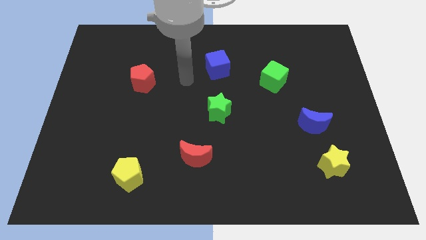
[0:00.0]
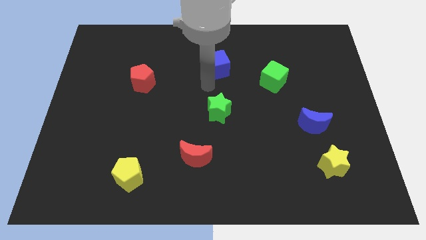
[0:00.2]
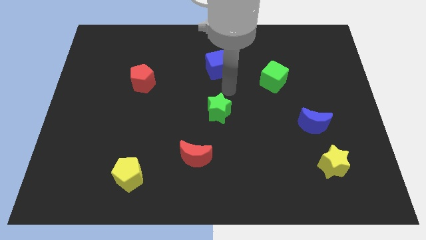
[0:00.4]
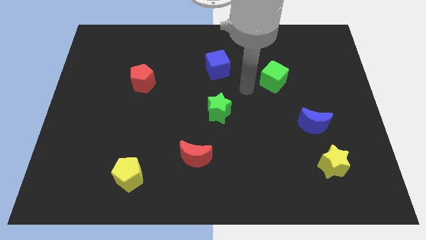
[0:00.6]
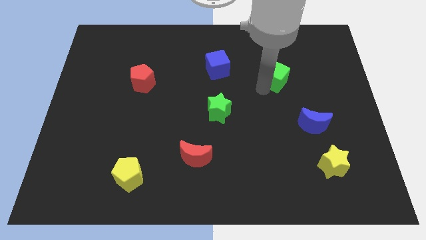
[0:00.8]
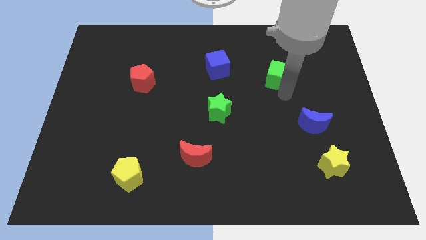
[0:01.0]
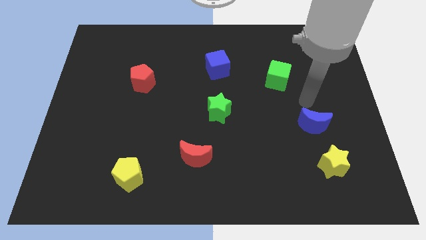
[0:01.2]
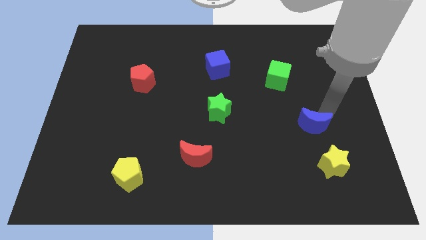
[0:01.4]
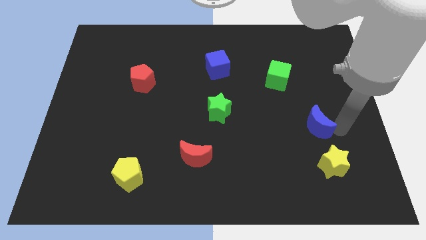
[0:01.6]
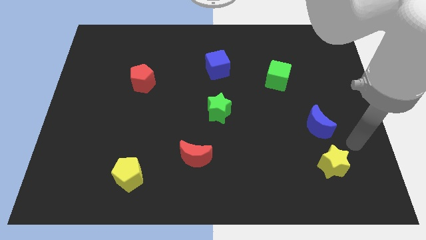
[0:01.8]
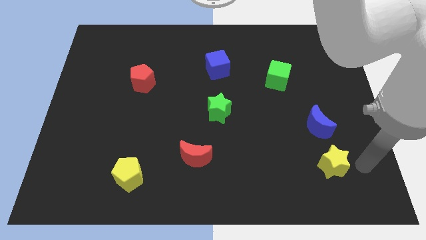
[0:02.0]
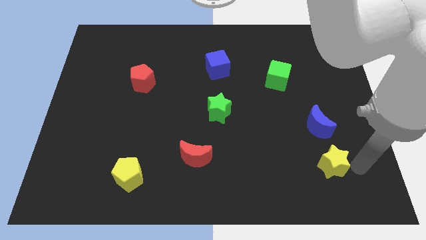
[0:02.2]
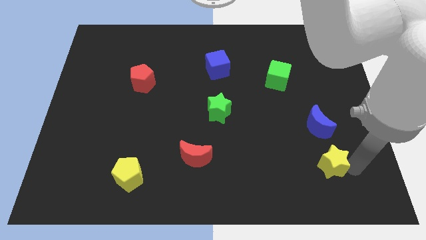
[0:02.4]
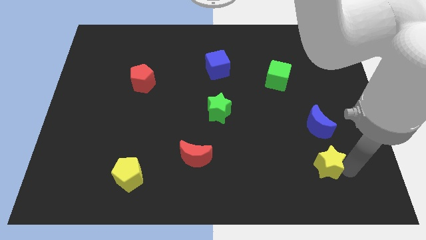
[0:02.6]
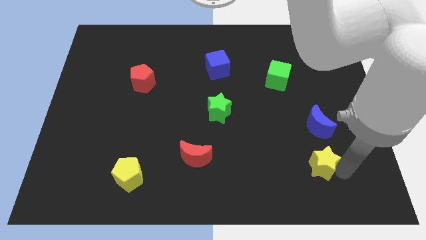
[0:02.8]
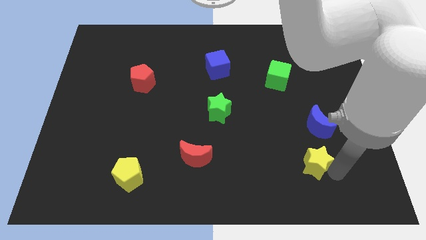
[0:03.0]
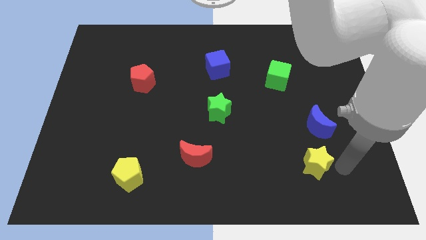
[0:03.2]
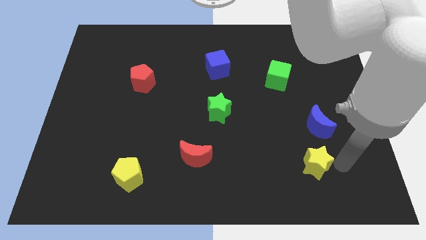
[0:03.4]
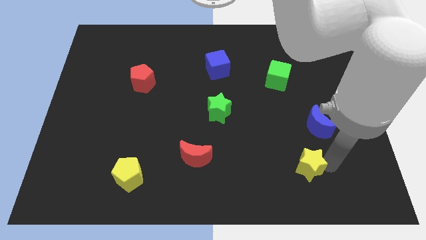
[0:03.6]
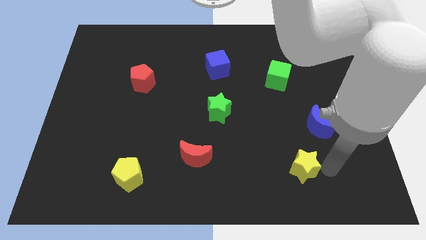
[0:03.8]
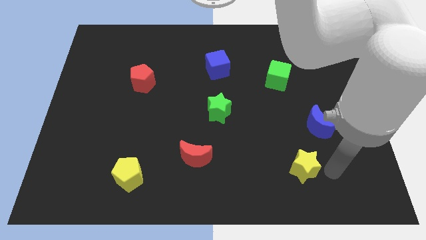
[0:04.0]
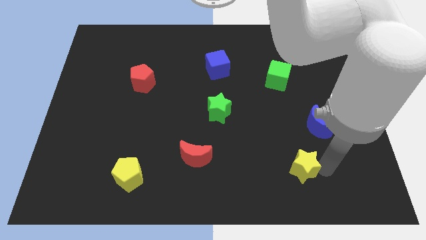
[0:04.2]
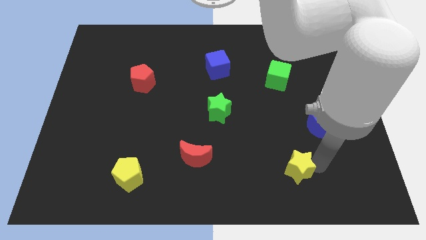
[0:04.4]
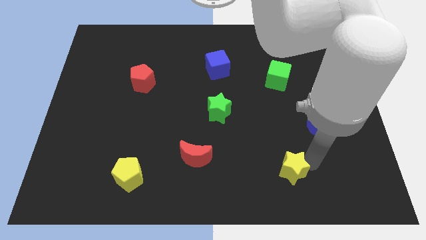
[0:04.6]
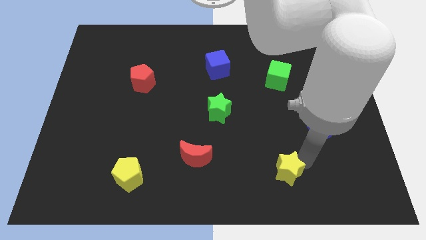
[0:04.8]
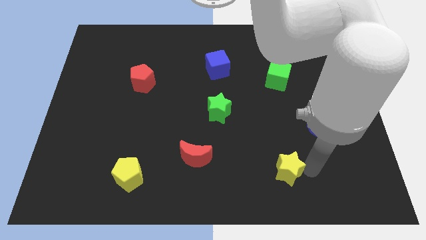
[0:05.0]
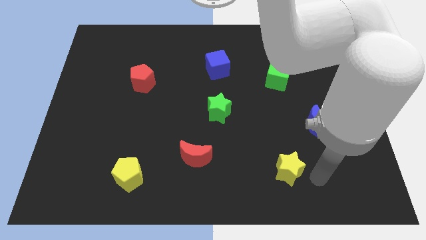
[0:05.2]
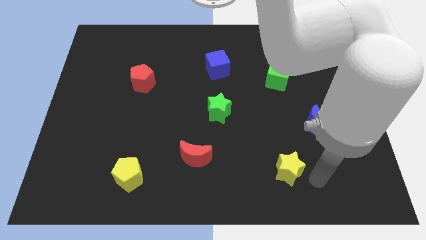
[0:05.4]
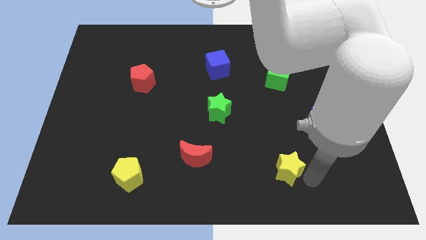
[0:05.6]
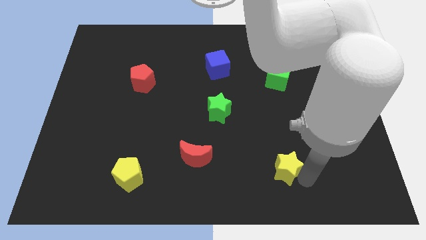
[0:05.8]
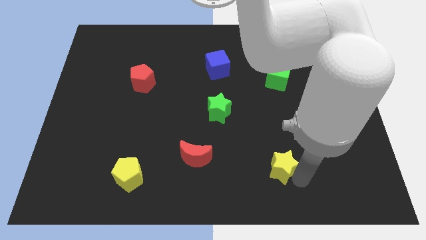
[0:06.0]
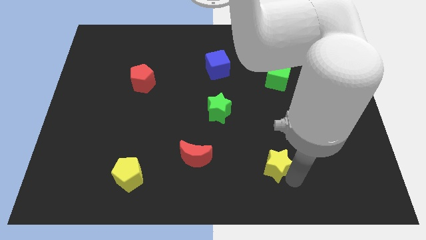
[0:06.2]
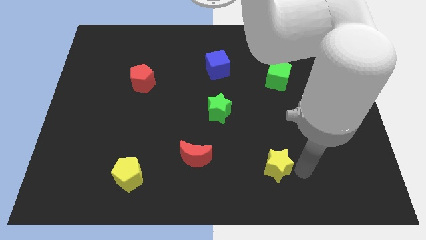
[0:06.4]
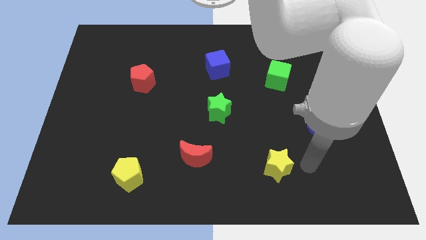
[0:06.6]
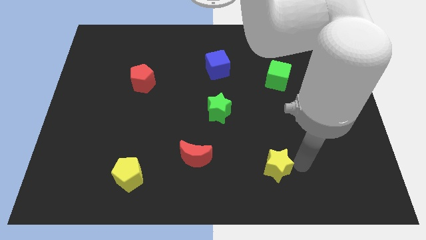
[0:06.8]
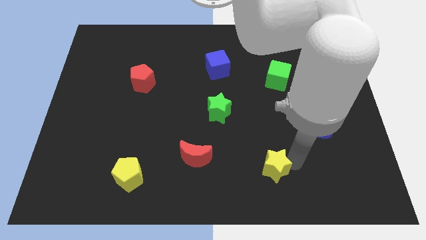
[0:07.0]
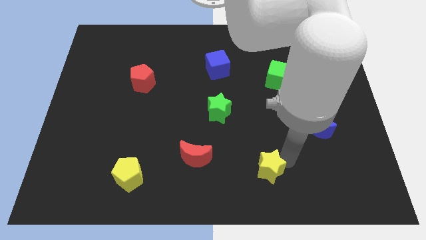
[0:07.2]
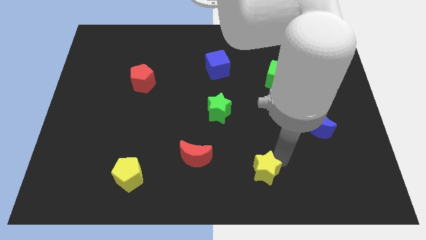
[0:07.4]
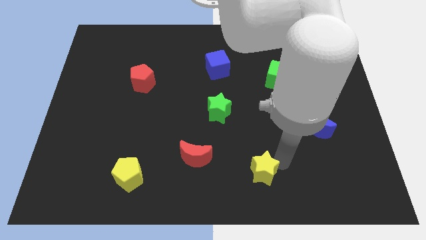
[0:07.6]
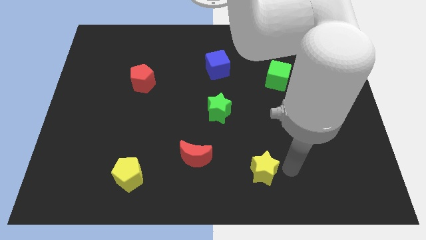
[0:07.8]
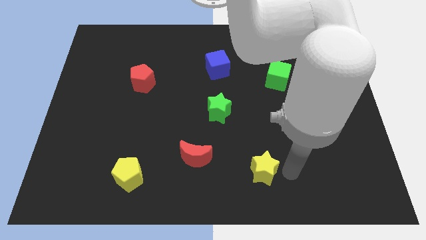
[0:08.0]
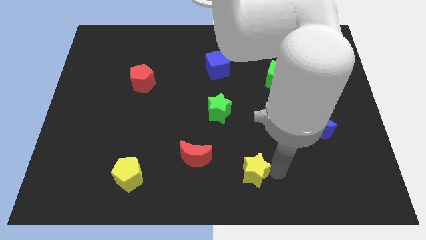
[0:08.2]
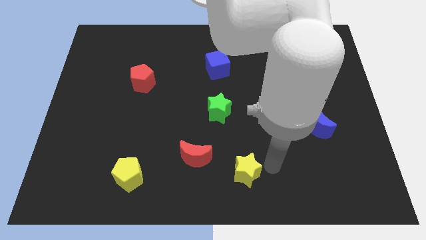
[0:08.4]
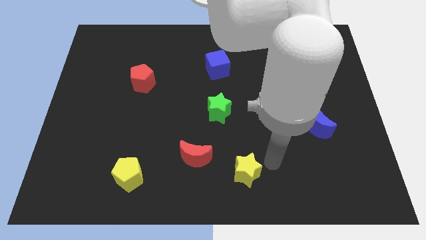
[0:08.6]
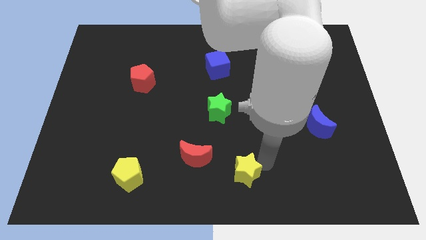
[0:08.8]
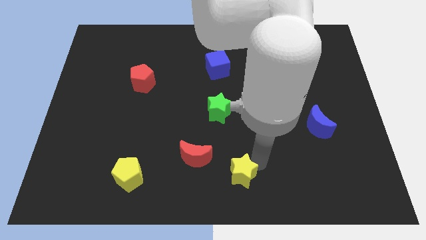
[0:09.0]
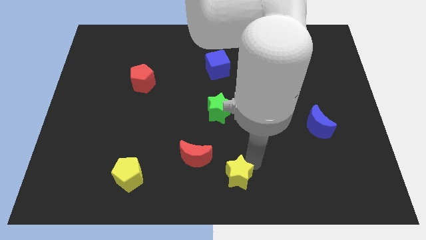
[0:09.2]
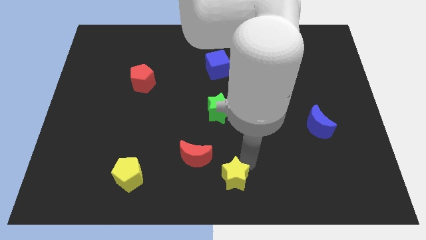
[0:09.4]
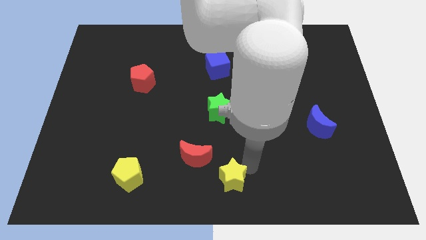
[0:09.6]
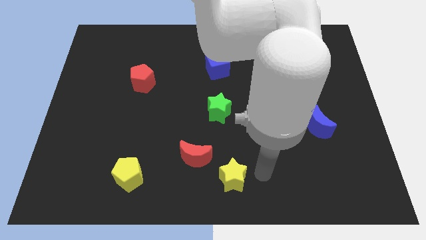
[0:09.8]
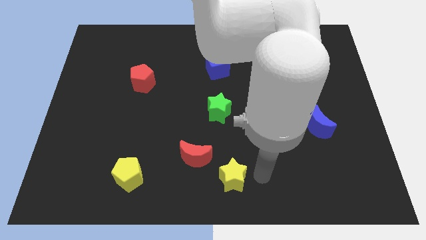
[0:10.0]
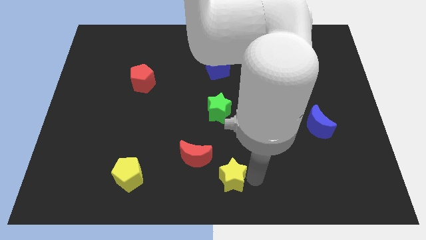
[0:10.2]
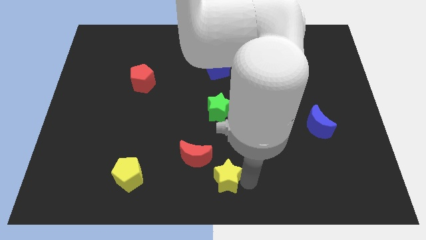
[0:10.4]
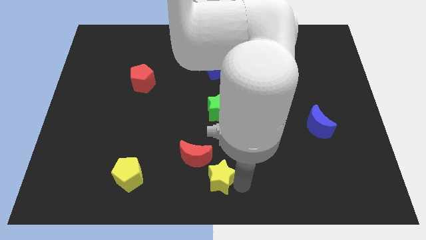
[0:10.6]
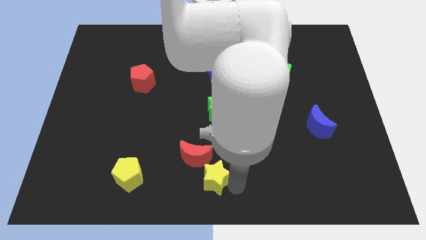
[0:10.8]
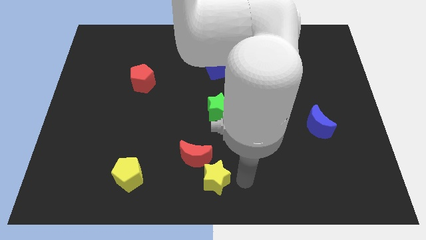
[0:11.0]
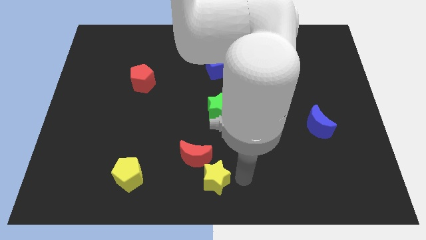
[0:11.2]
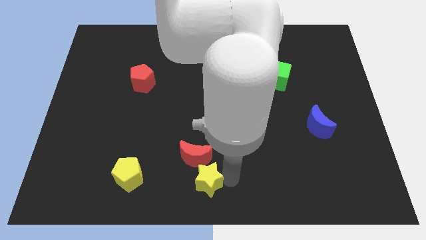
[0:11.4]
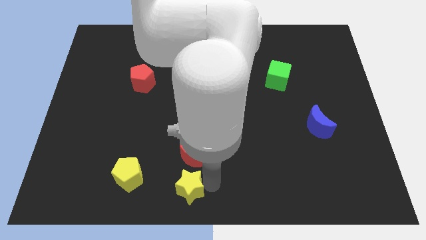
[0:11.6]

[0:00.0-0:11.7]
push the yellow star to the bottom left side of the red moon

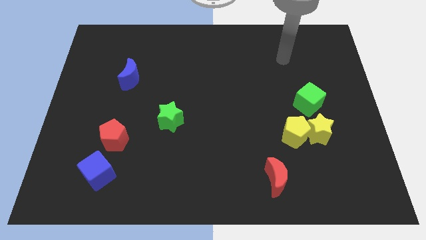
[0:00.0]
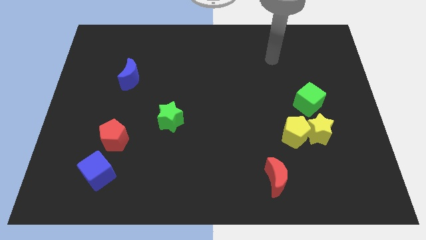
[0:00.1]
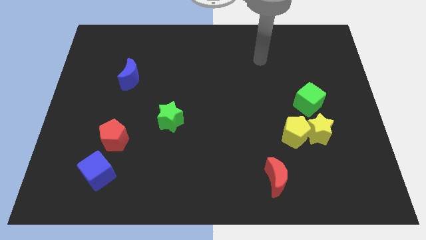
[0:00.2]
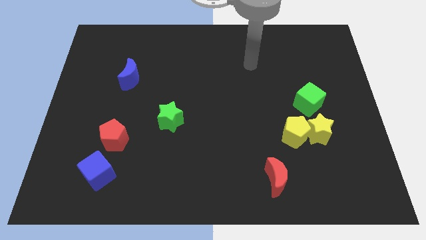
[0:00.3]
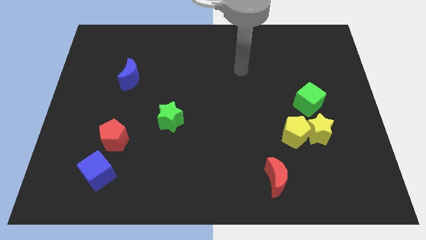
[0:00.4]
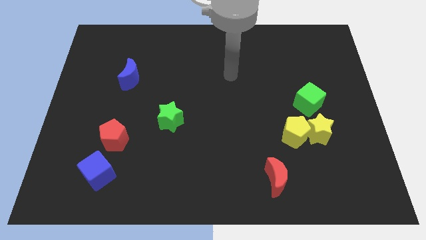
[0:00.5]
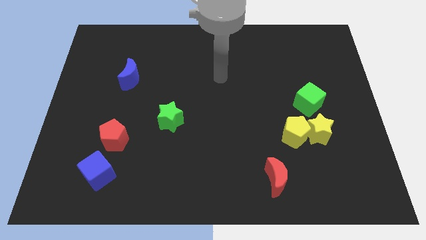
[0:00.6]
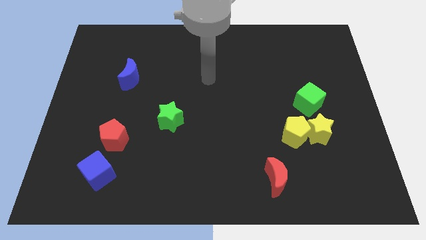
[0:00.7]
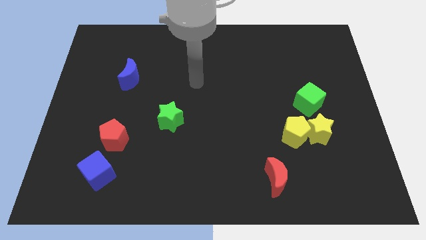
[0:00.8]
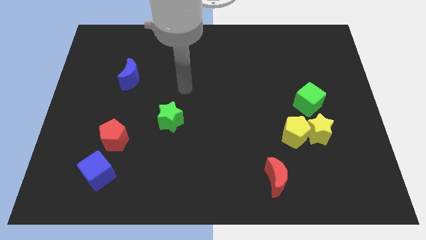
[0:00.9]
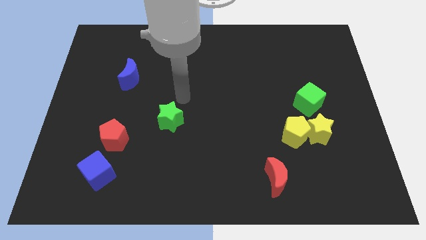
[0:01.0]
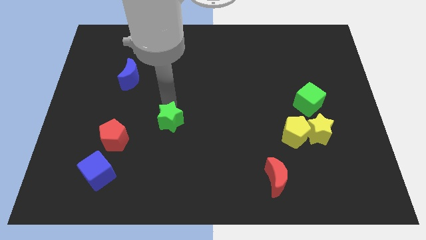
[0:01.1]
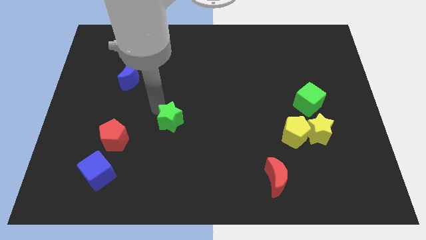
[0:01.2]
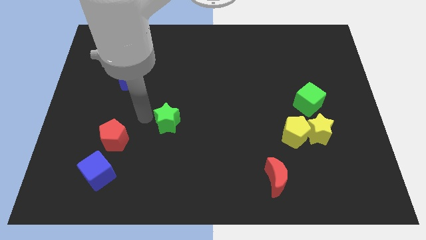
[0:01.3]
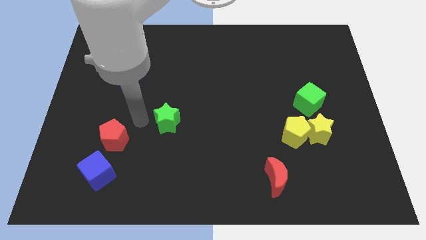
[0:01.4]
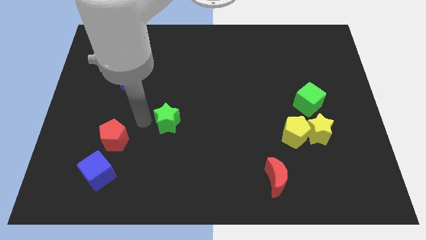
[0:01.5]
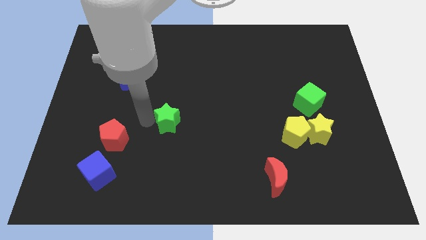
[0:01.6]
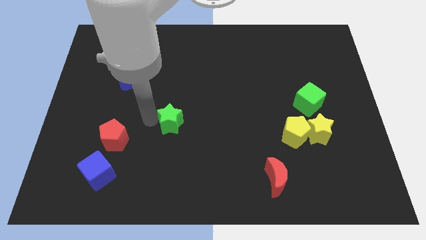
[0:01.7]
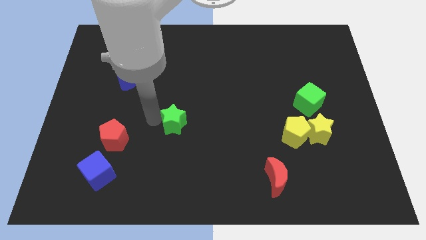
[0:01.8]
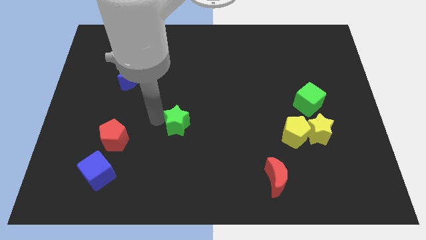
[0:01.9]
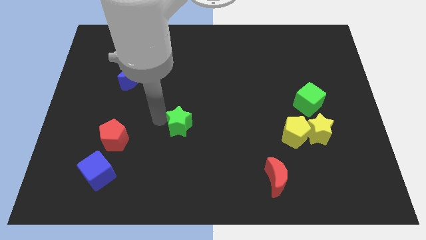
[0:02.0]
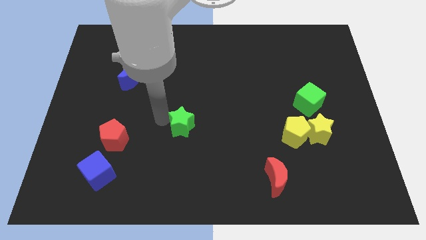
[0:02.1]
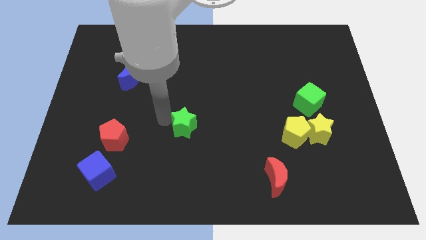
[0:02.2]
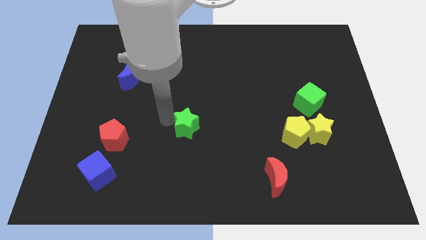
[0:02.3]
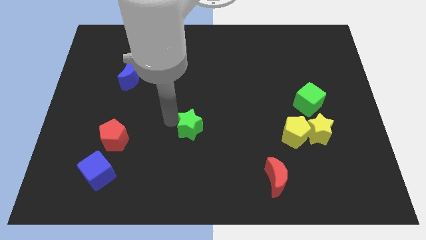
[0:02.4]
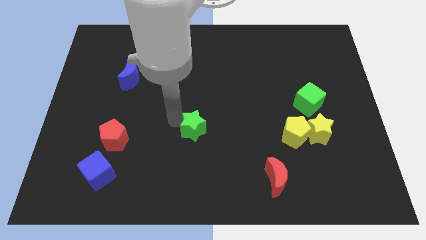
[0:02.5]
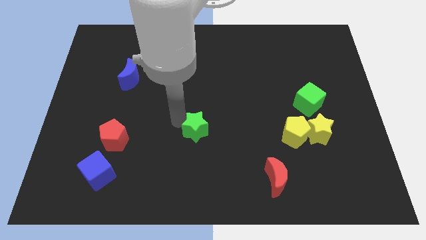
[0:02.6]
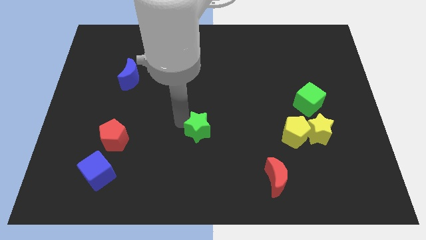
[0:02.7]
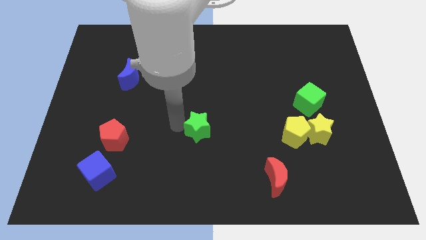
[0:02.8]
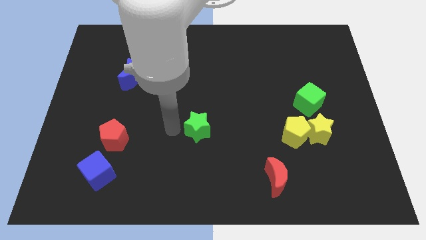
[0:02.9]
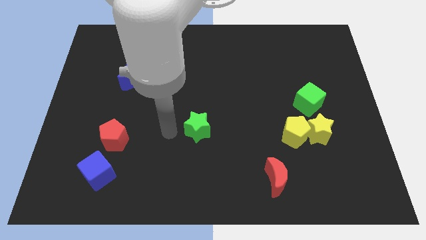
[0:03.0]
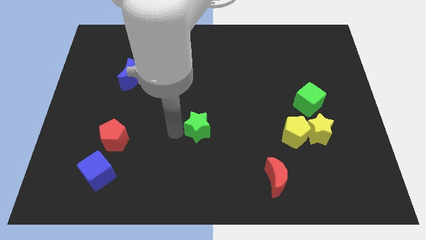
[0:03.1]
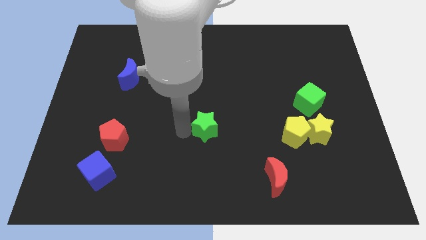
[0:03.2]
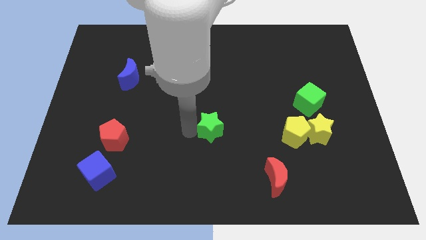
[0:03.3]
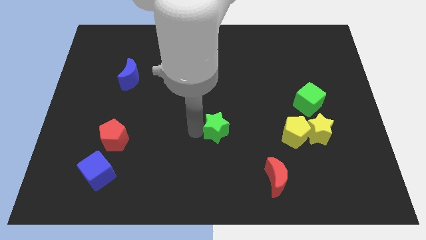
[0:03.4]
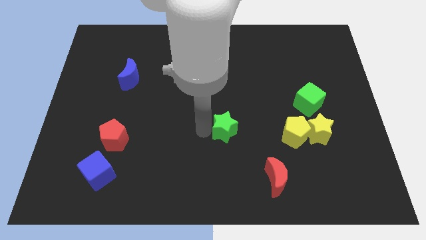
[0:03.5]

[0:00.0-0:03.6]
push the green star to the left side of the yellow pentagon
